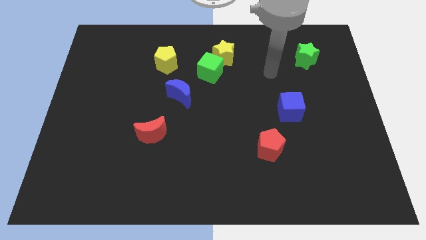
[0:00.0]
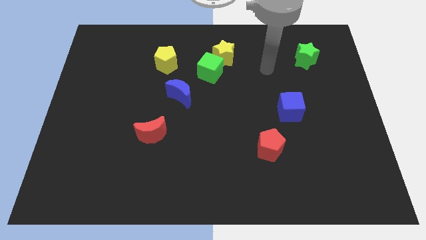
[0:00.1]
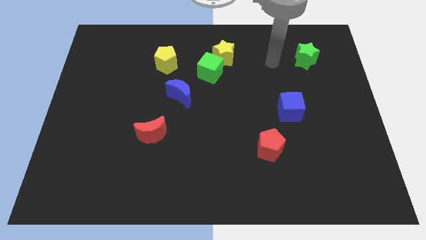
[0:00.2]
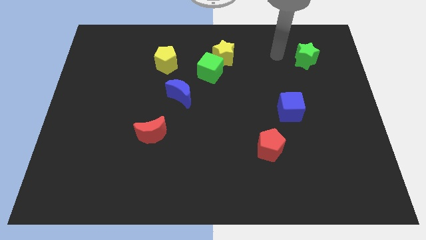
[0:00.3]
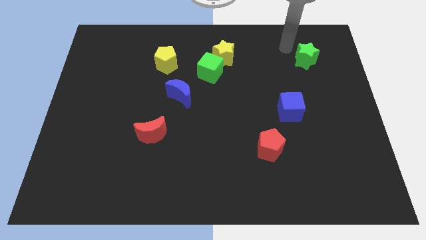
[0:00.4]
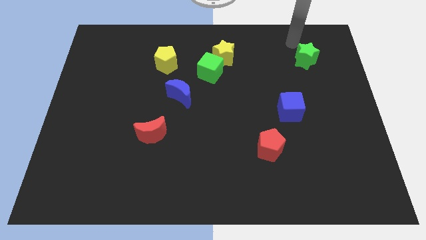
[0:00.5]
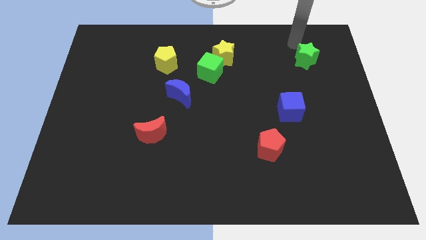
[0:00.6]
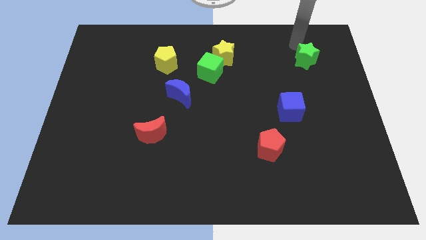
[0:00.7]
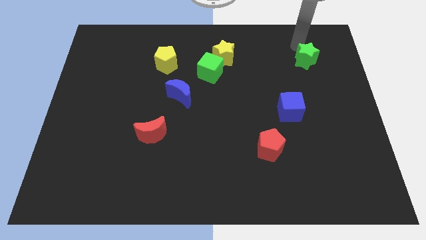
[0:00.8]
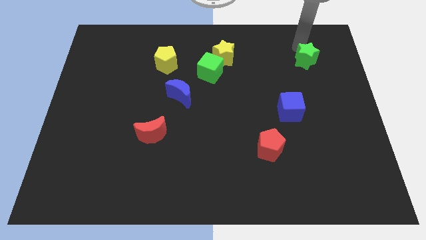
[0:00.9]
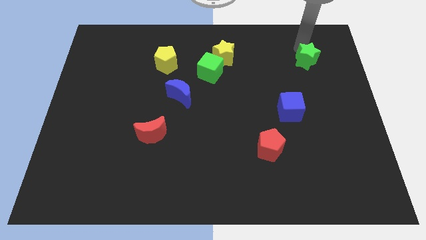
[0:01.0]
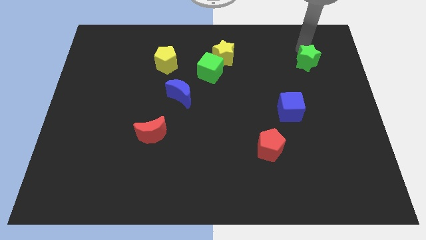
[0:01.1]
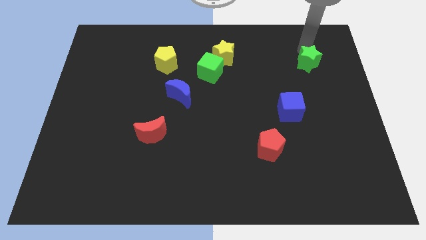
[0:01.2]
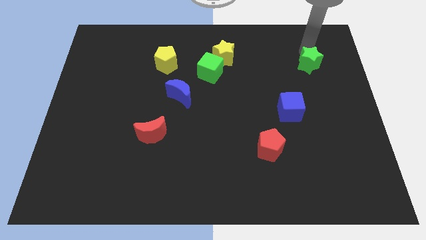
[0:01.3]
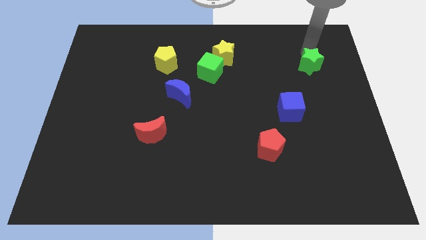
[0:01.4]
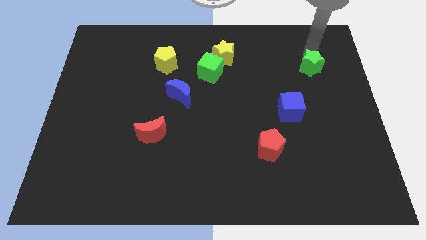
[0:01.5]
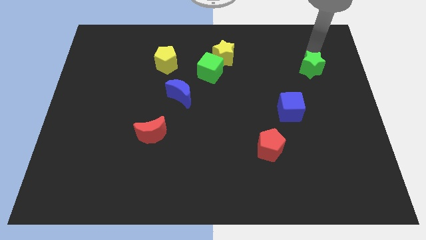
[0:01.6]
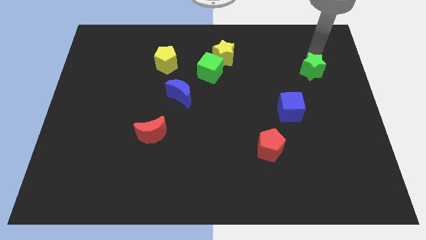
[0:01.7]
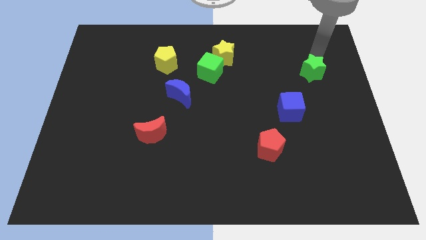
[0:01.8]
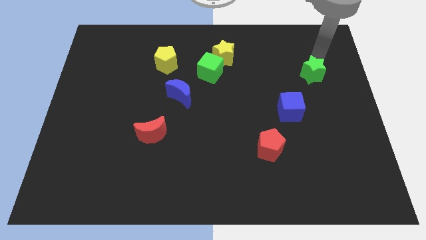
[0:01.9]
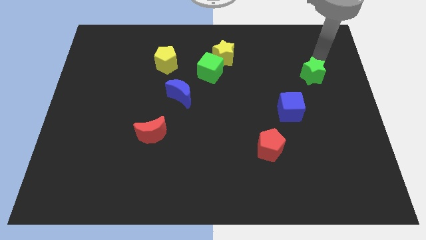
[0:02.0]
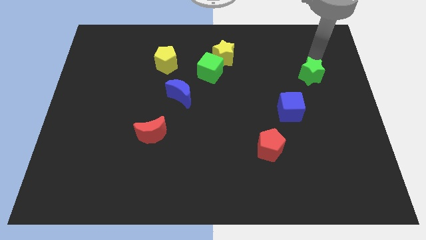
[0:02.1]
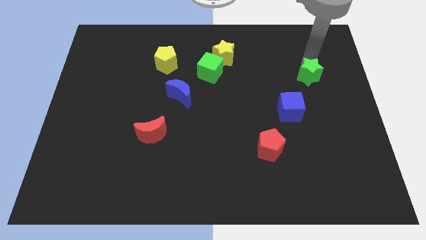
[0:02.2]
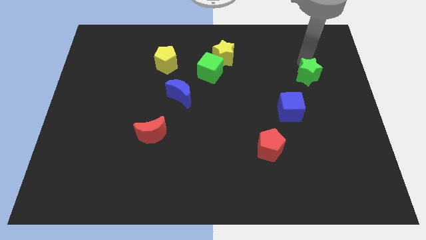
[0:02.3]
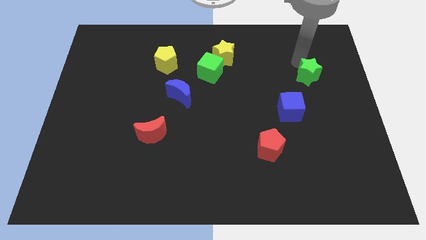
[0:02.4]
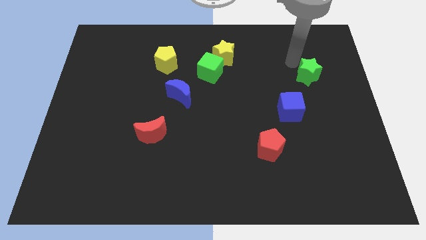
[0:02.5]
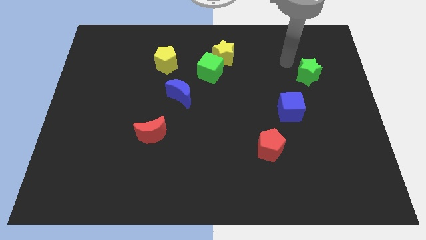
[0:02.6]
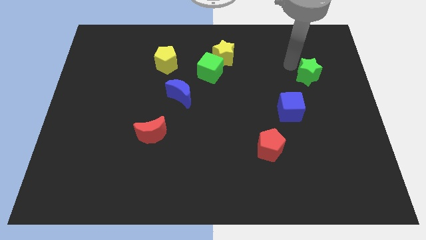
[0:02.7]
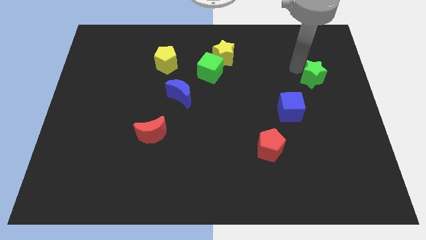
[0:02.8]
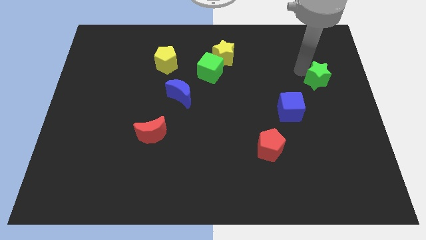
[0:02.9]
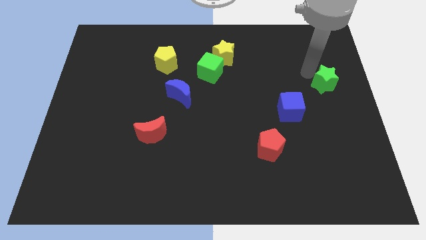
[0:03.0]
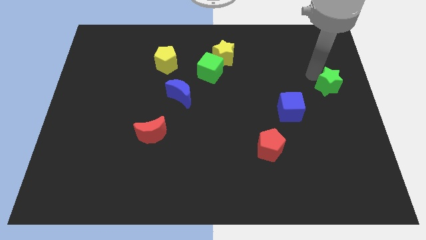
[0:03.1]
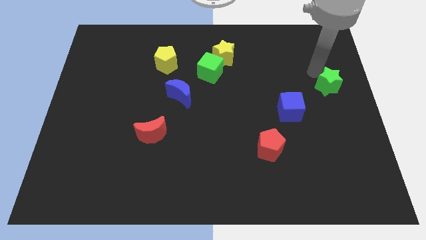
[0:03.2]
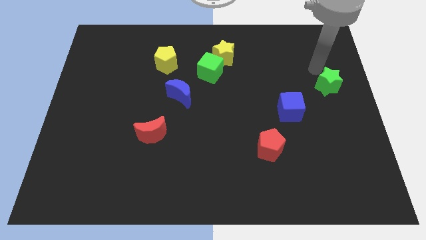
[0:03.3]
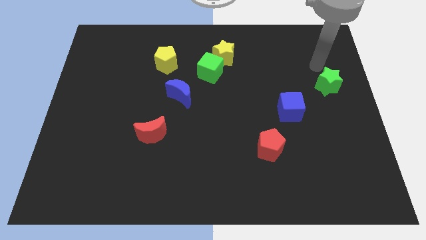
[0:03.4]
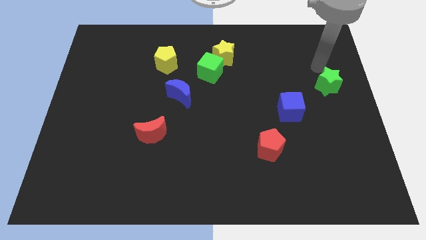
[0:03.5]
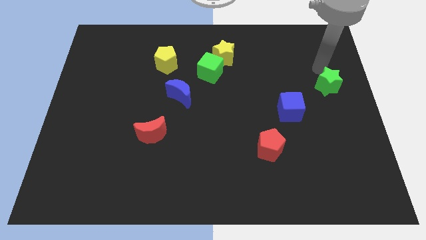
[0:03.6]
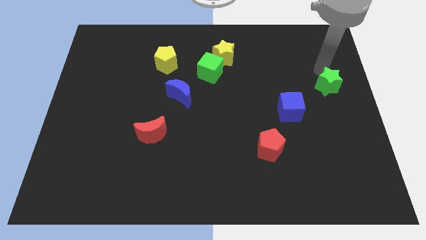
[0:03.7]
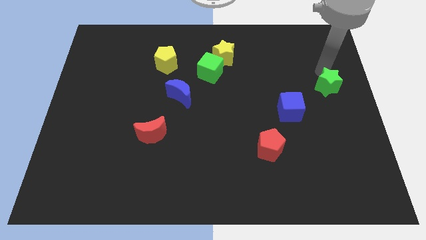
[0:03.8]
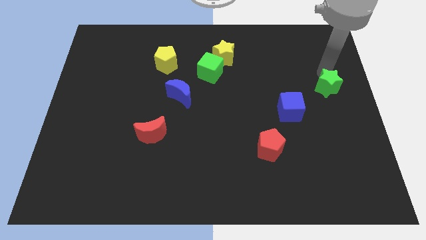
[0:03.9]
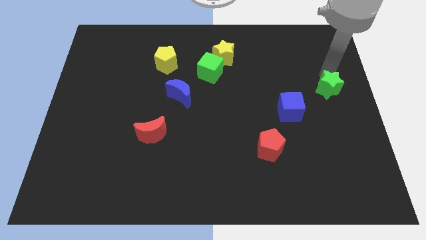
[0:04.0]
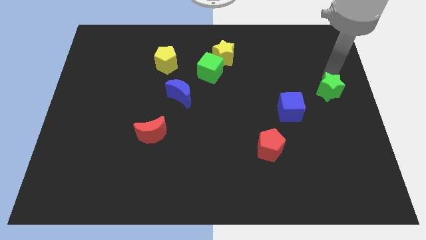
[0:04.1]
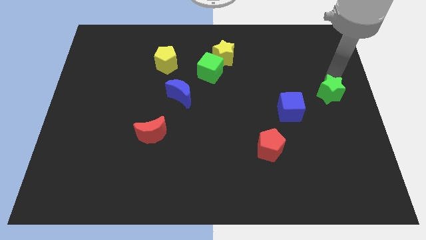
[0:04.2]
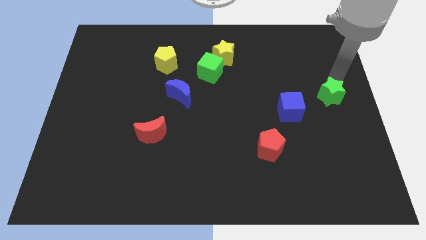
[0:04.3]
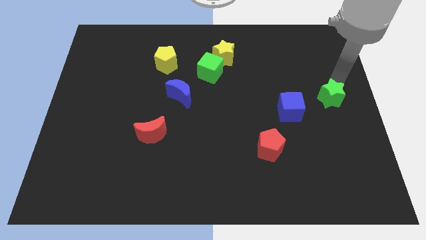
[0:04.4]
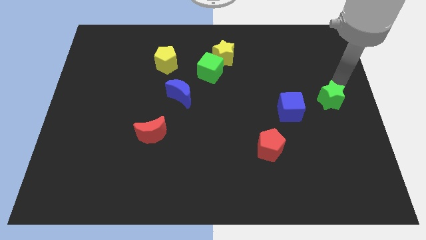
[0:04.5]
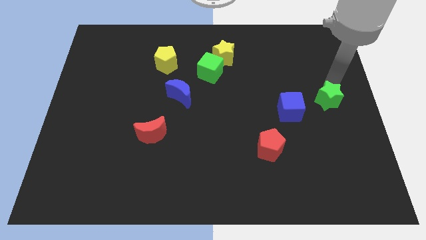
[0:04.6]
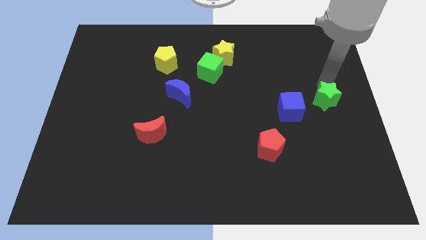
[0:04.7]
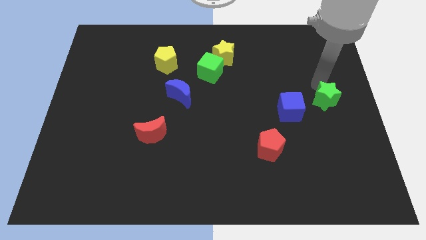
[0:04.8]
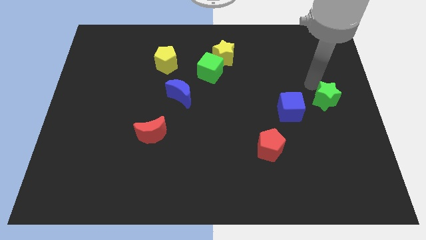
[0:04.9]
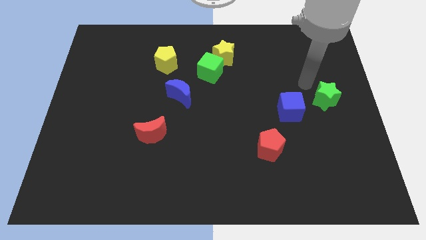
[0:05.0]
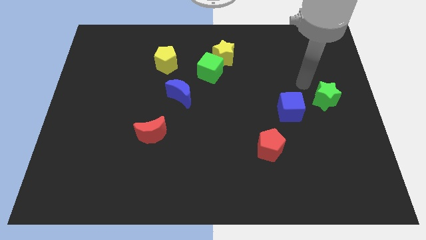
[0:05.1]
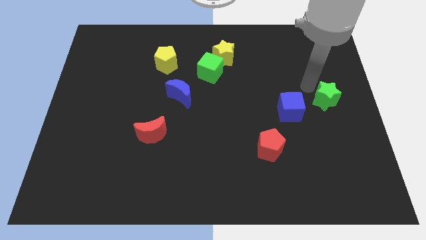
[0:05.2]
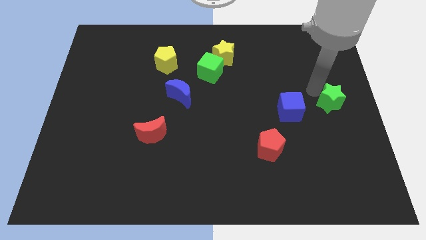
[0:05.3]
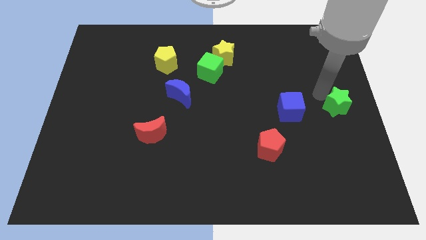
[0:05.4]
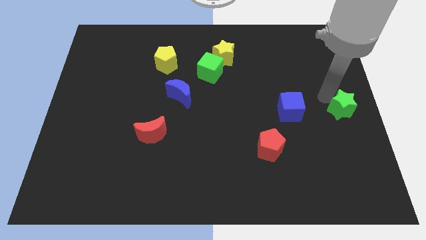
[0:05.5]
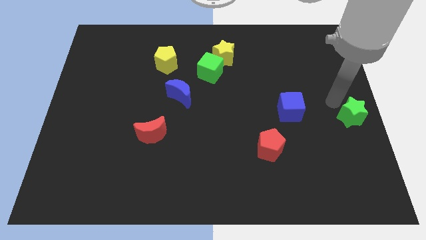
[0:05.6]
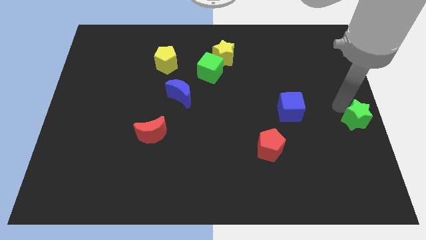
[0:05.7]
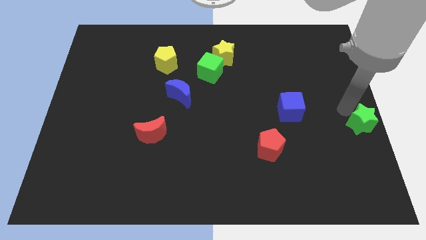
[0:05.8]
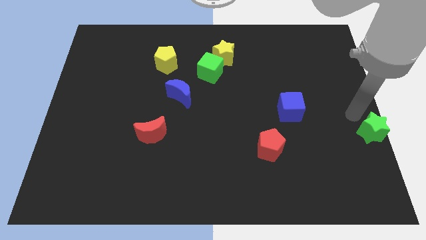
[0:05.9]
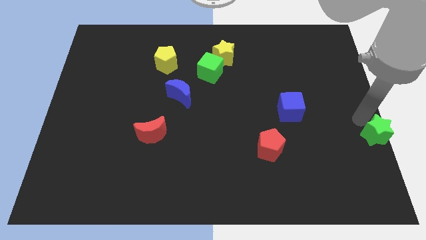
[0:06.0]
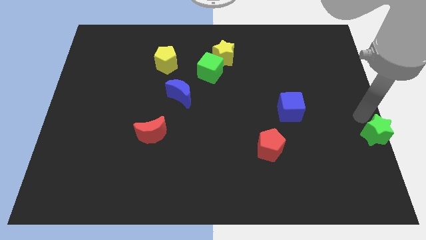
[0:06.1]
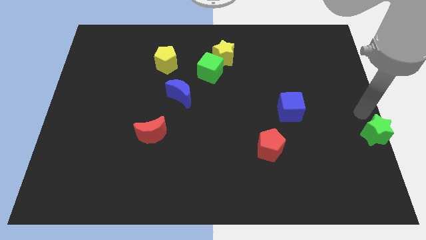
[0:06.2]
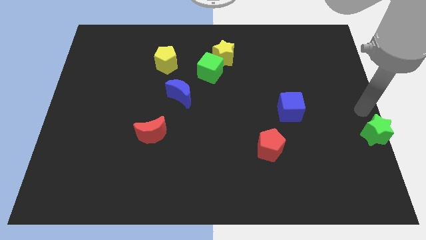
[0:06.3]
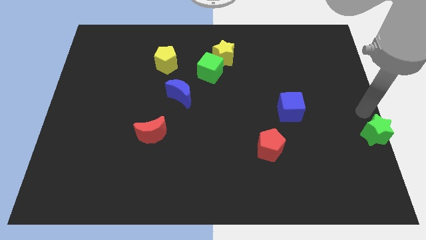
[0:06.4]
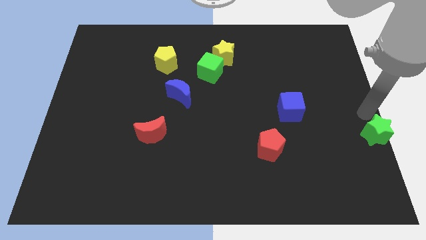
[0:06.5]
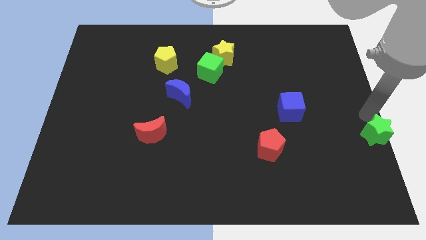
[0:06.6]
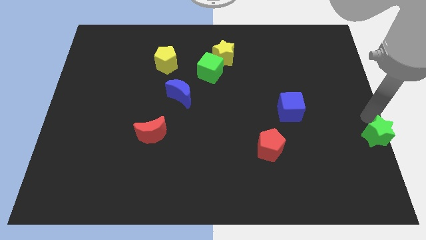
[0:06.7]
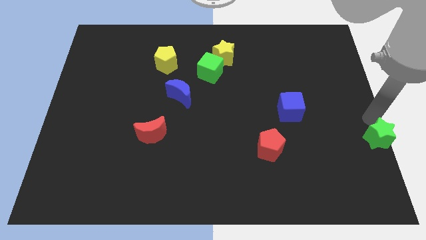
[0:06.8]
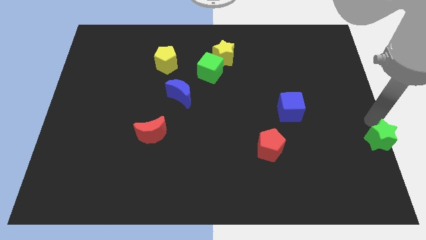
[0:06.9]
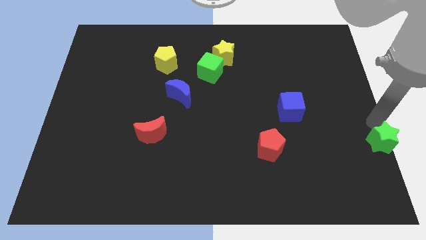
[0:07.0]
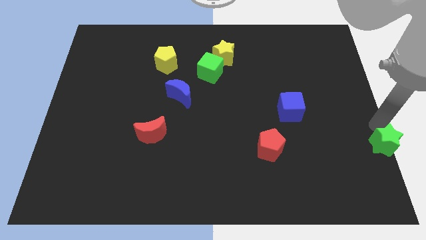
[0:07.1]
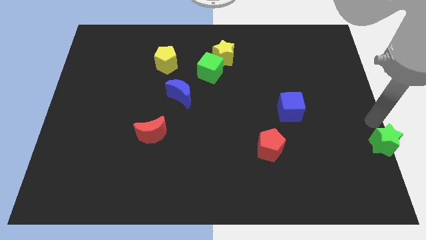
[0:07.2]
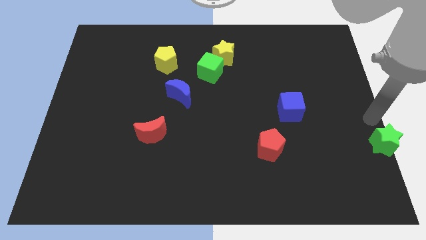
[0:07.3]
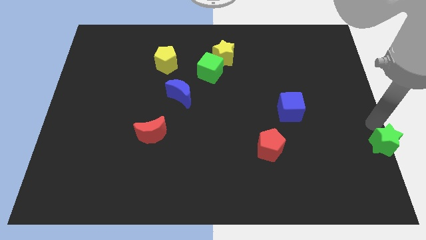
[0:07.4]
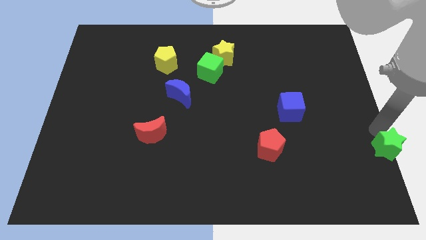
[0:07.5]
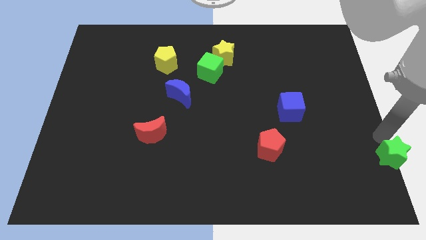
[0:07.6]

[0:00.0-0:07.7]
move the green star to the bottom right corner
